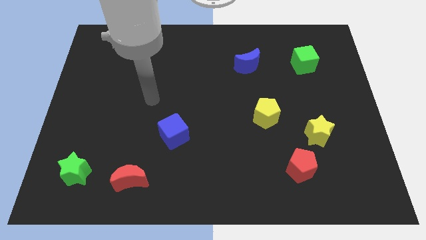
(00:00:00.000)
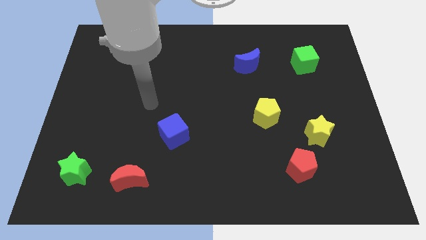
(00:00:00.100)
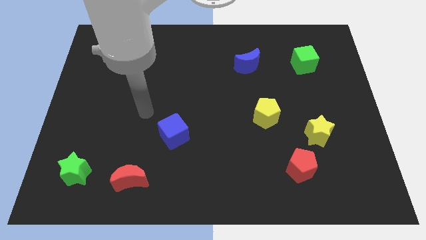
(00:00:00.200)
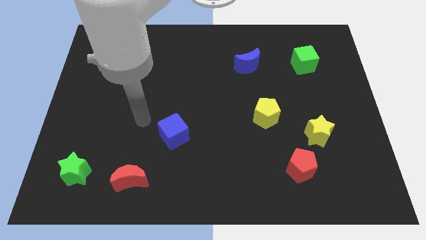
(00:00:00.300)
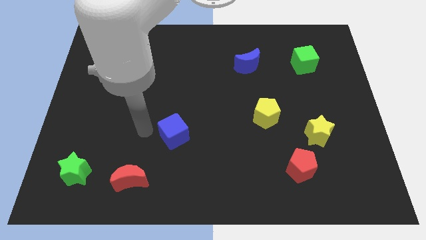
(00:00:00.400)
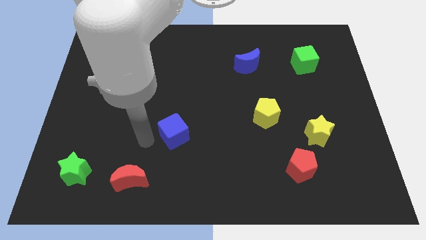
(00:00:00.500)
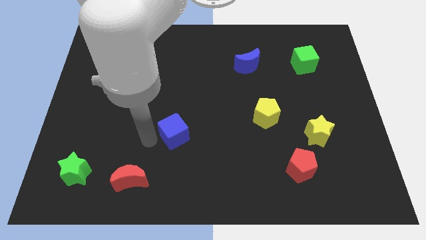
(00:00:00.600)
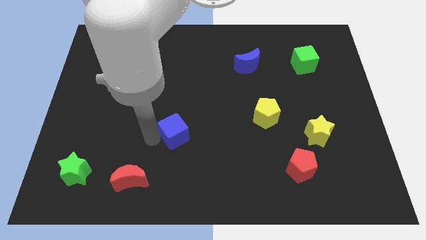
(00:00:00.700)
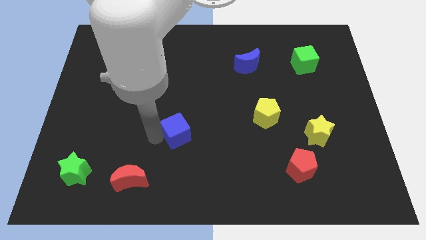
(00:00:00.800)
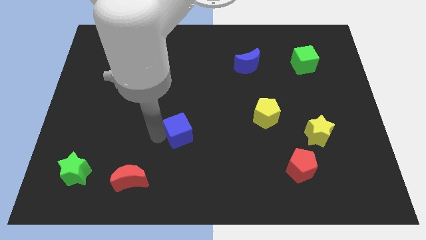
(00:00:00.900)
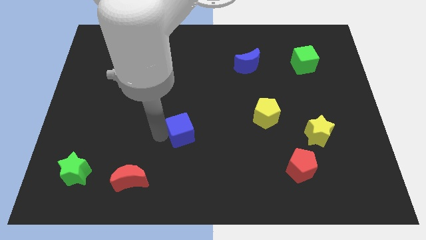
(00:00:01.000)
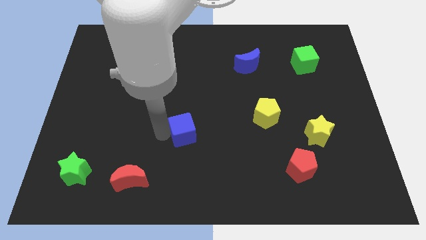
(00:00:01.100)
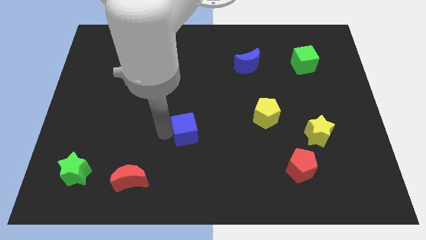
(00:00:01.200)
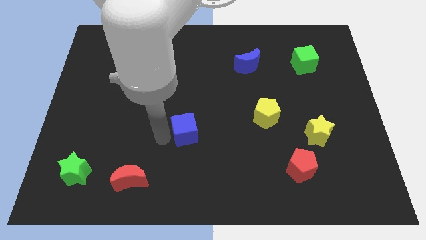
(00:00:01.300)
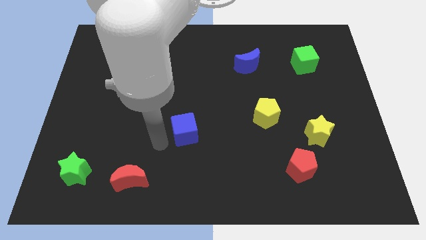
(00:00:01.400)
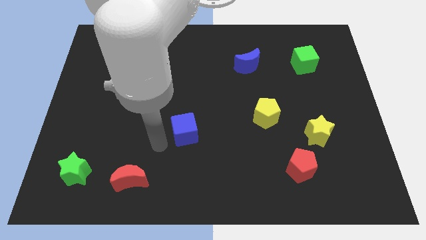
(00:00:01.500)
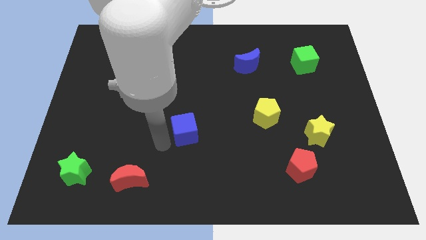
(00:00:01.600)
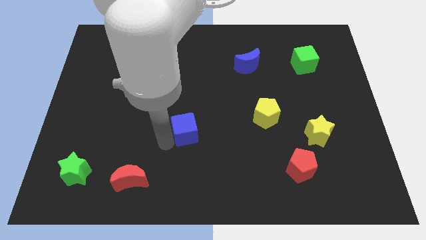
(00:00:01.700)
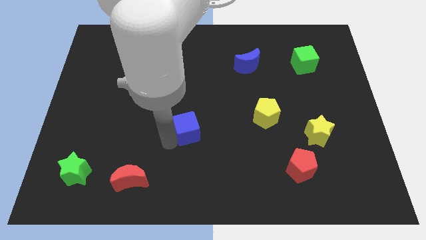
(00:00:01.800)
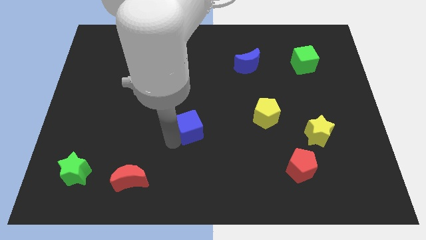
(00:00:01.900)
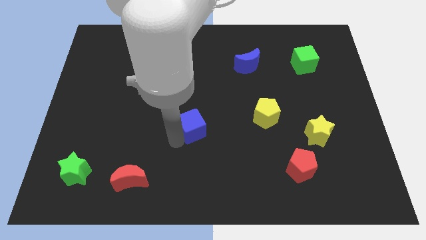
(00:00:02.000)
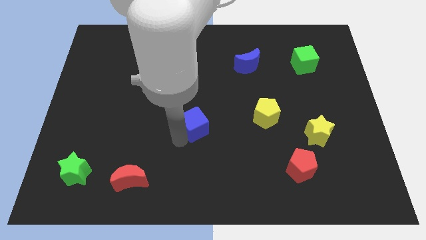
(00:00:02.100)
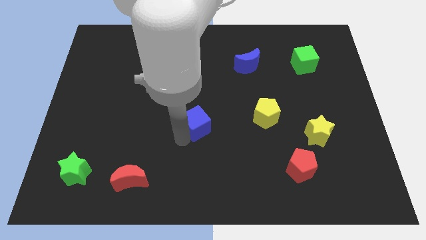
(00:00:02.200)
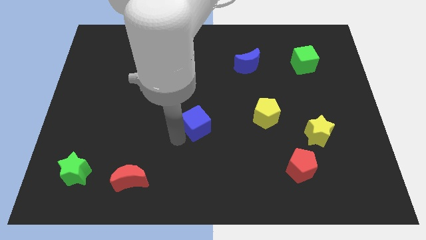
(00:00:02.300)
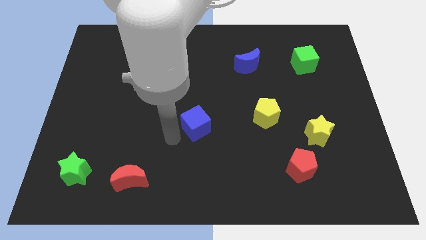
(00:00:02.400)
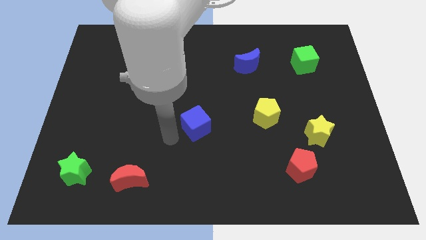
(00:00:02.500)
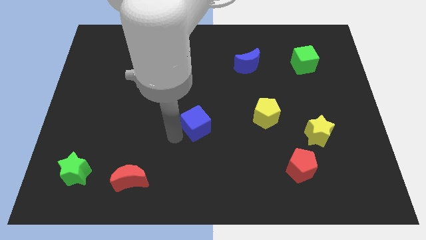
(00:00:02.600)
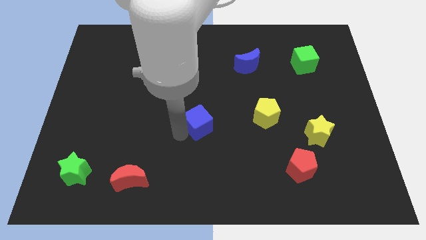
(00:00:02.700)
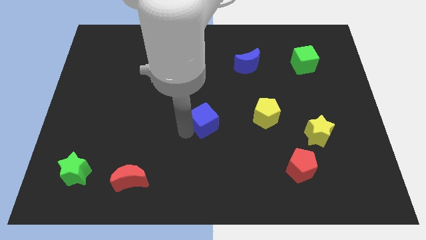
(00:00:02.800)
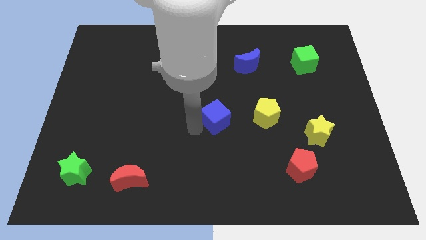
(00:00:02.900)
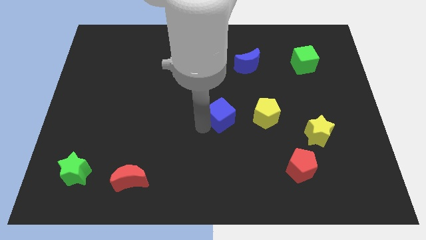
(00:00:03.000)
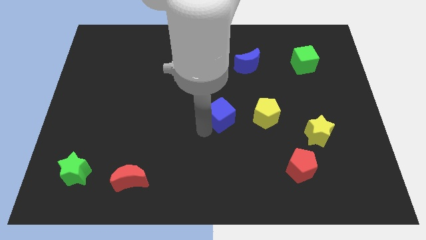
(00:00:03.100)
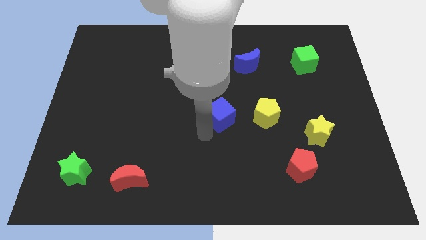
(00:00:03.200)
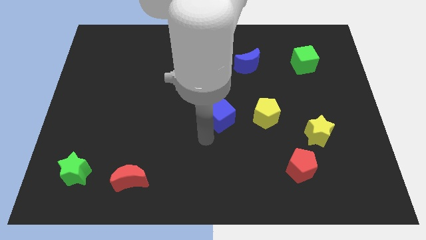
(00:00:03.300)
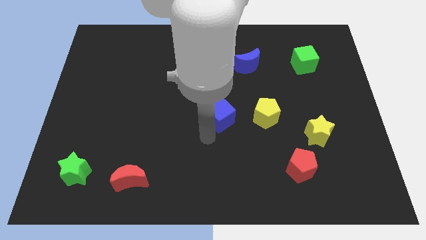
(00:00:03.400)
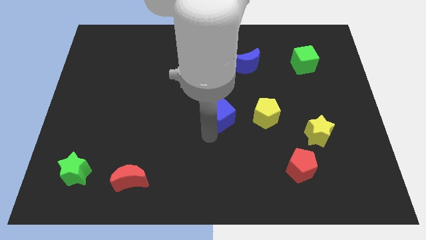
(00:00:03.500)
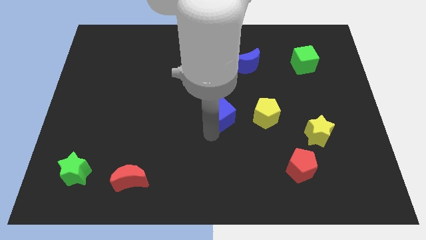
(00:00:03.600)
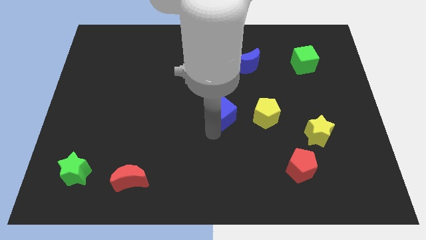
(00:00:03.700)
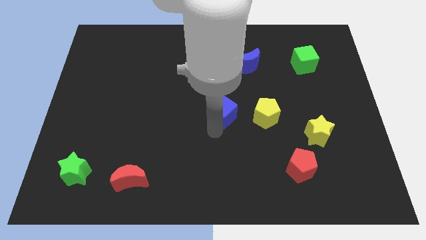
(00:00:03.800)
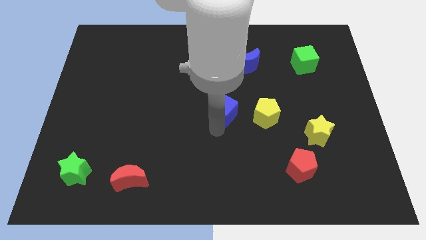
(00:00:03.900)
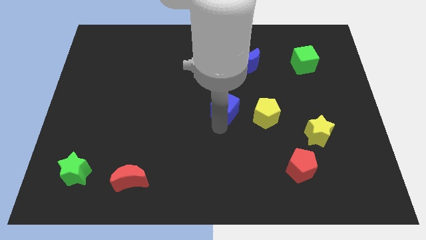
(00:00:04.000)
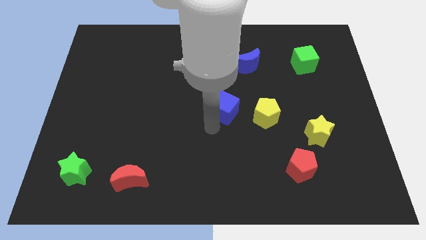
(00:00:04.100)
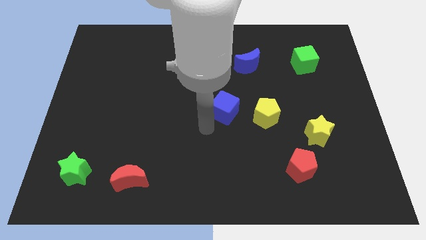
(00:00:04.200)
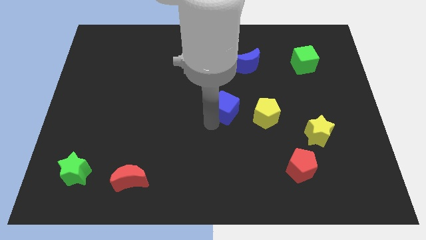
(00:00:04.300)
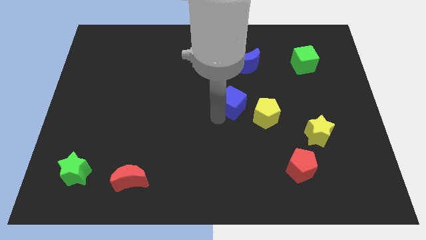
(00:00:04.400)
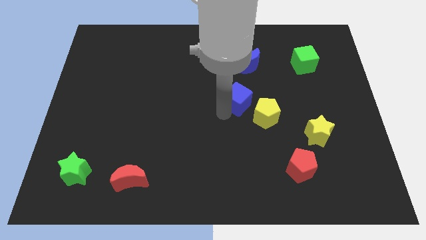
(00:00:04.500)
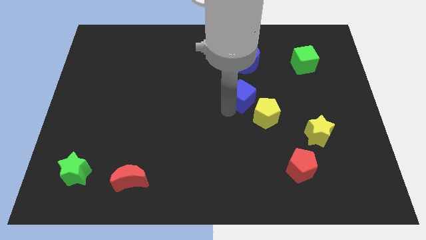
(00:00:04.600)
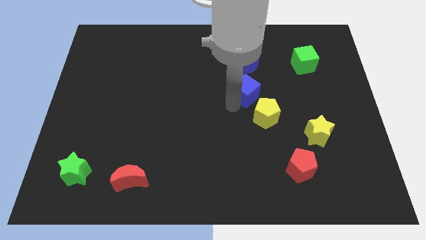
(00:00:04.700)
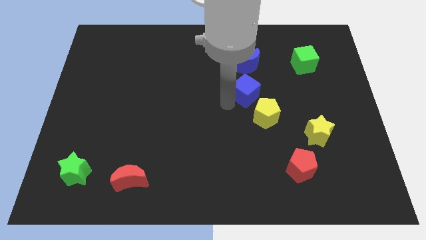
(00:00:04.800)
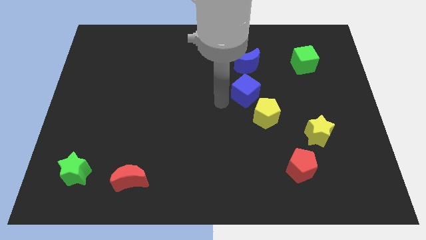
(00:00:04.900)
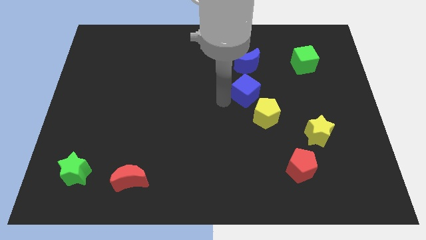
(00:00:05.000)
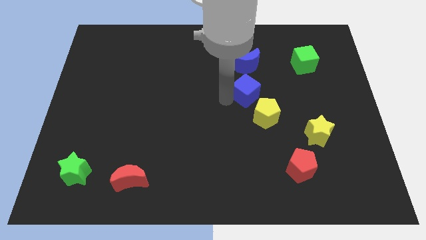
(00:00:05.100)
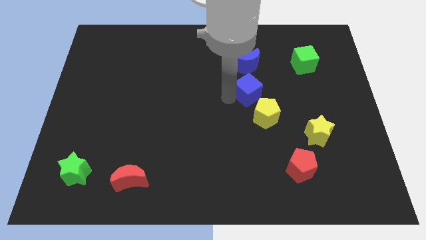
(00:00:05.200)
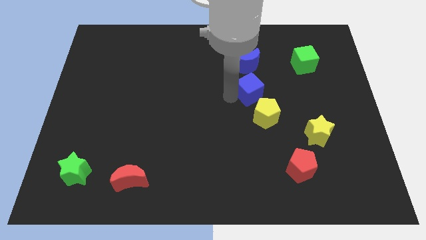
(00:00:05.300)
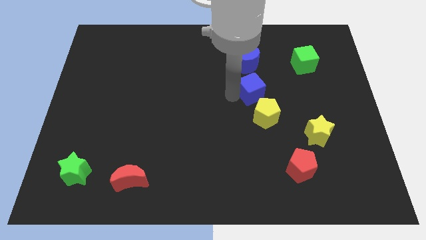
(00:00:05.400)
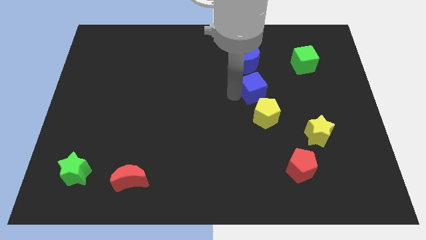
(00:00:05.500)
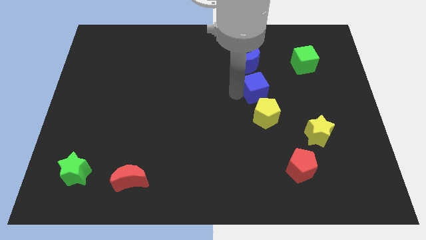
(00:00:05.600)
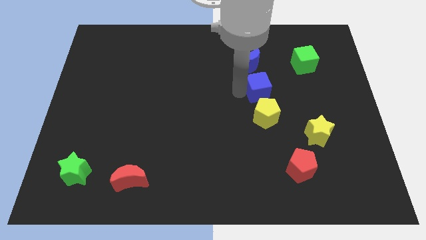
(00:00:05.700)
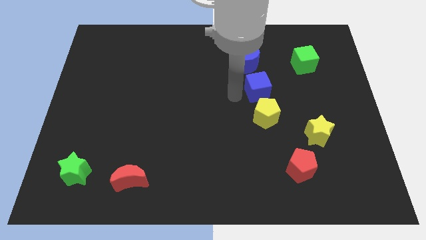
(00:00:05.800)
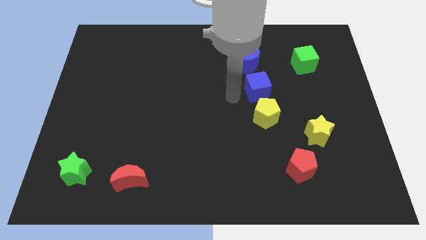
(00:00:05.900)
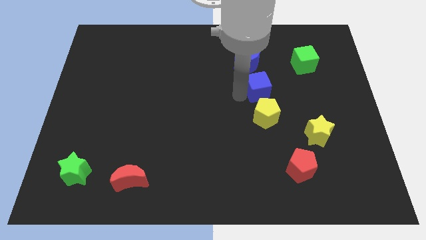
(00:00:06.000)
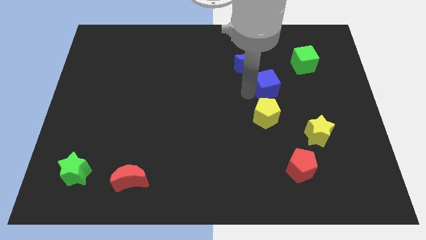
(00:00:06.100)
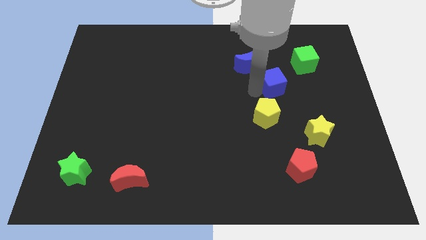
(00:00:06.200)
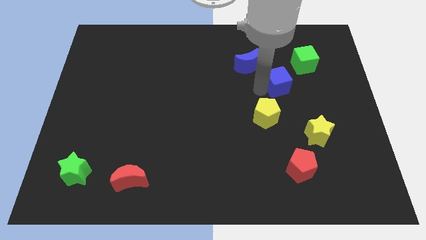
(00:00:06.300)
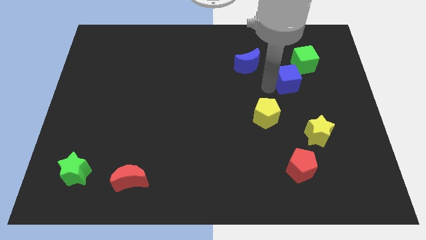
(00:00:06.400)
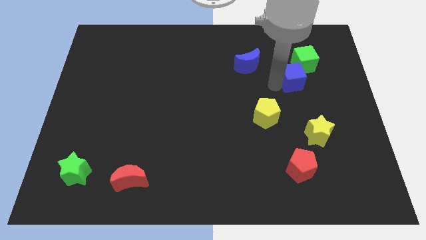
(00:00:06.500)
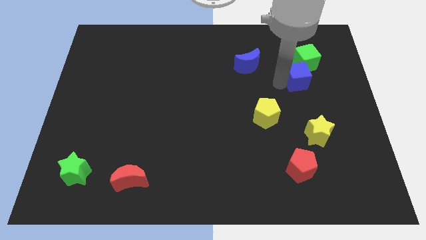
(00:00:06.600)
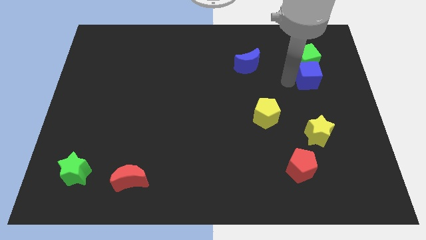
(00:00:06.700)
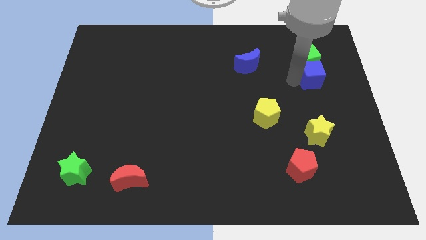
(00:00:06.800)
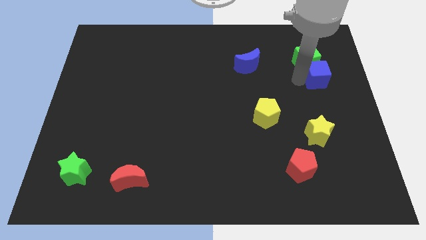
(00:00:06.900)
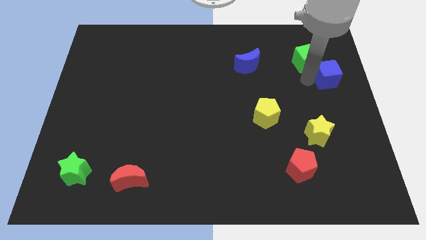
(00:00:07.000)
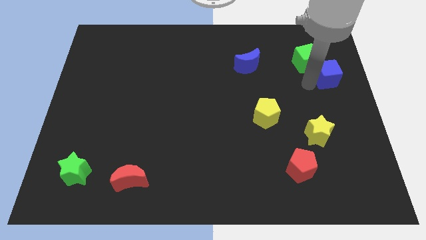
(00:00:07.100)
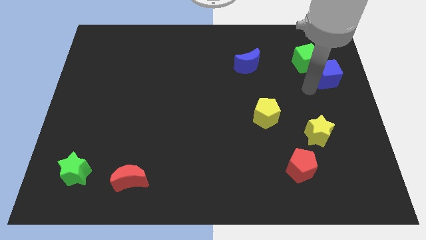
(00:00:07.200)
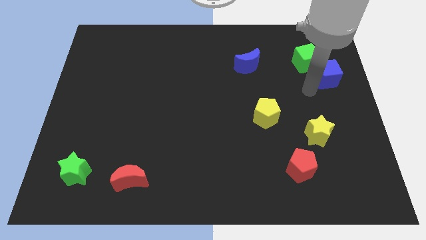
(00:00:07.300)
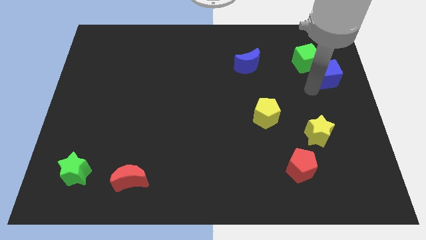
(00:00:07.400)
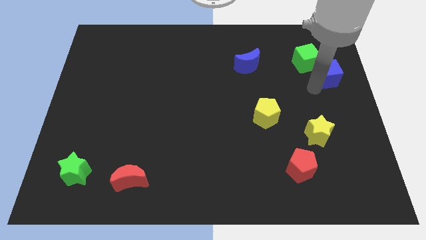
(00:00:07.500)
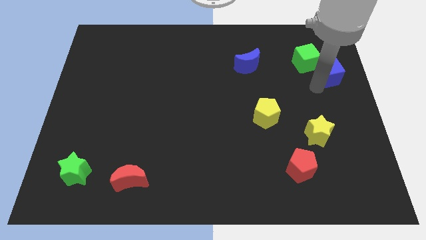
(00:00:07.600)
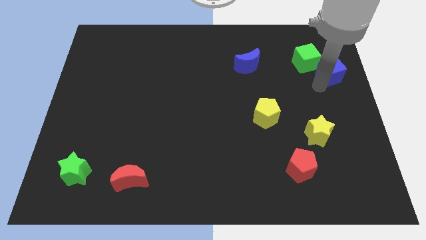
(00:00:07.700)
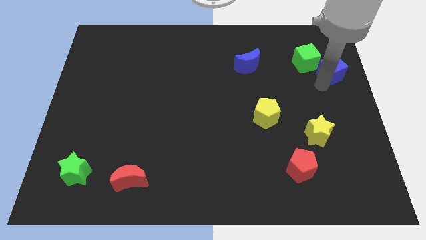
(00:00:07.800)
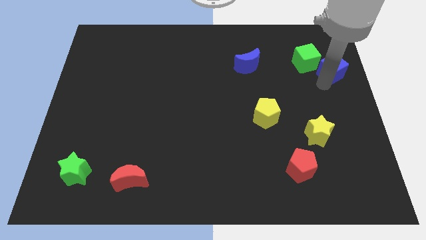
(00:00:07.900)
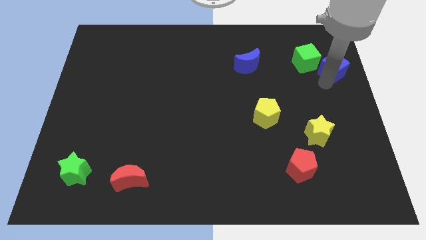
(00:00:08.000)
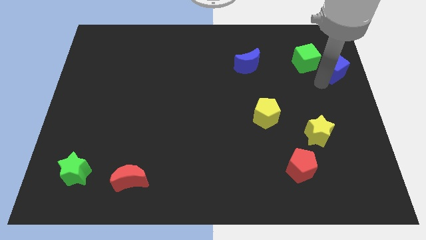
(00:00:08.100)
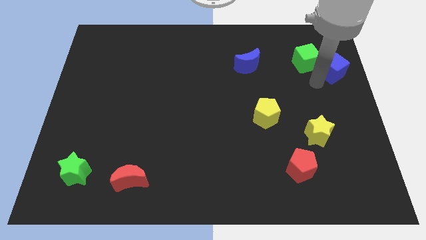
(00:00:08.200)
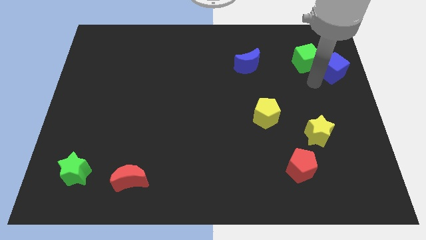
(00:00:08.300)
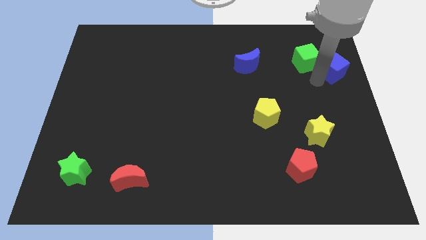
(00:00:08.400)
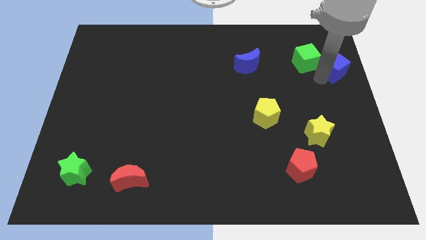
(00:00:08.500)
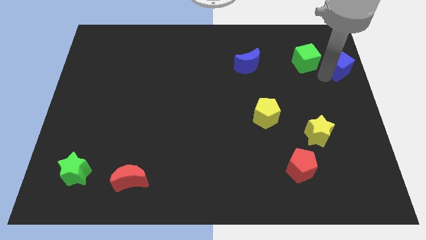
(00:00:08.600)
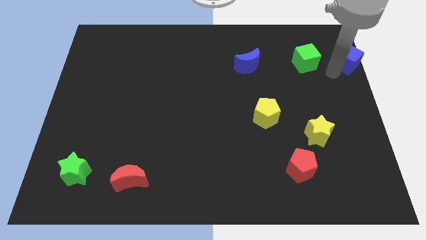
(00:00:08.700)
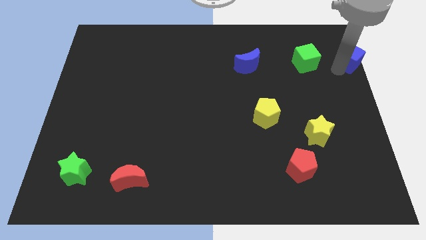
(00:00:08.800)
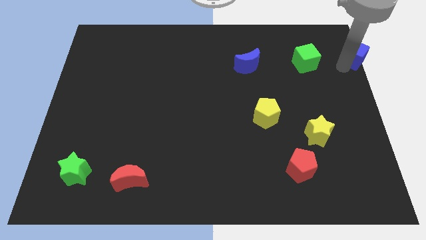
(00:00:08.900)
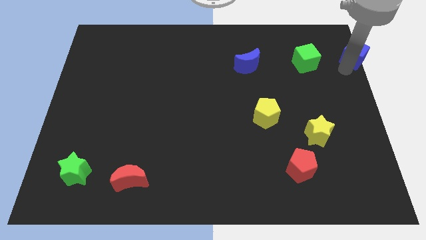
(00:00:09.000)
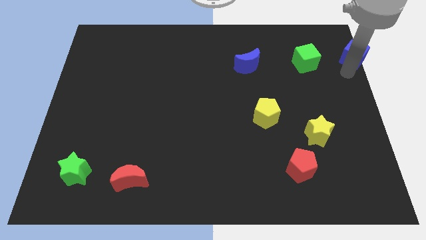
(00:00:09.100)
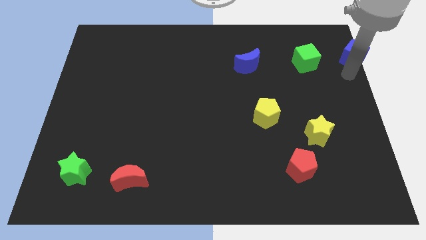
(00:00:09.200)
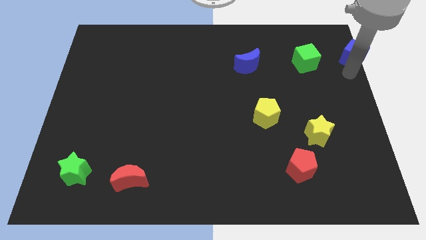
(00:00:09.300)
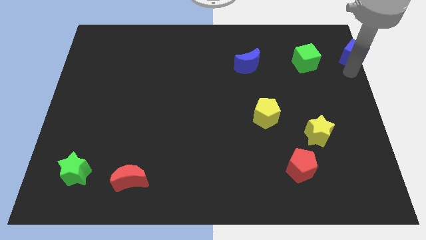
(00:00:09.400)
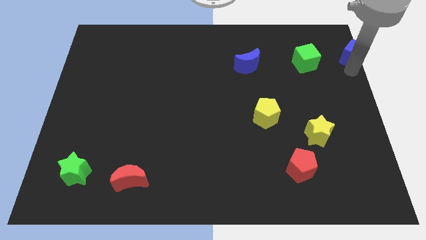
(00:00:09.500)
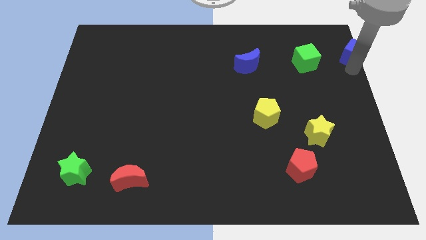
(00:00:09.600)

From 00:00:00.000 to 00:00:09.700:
push the blue cube to the upper right corner
